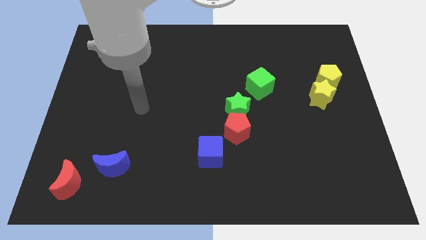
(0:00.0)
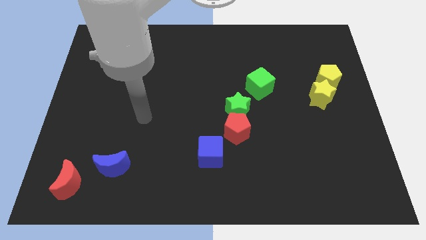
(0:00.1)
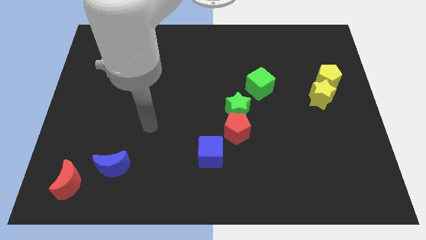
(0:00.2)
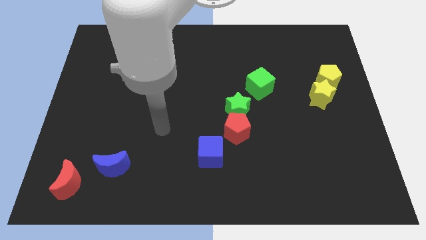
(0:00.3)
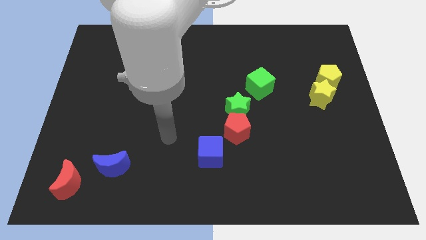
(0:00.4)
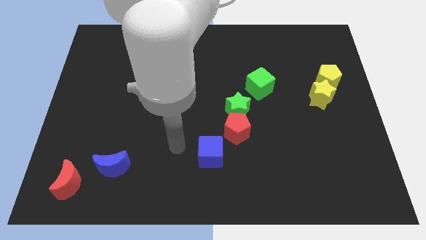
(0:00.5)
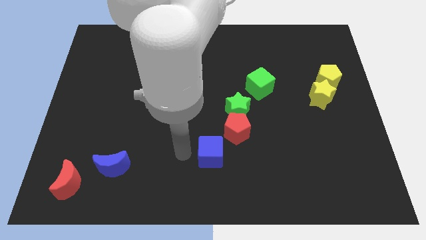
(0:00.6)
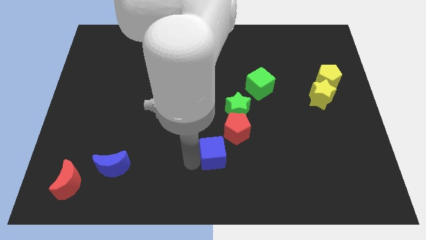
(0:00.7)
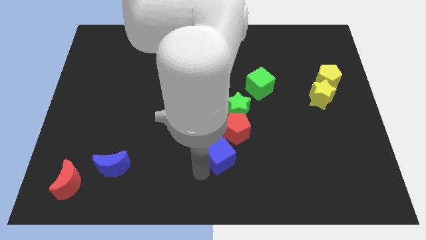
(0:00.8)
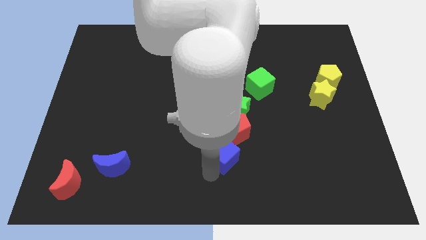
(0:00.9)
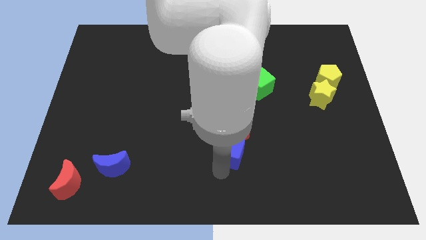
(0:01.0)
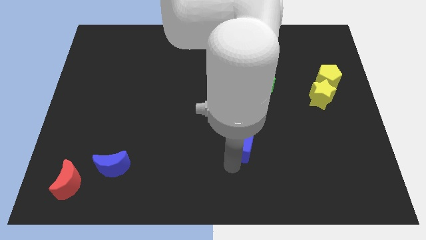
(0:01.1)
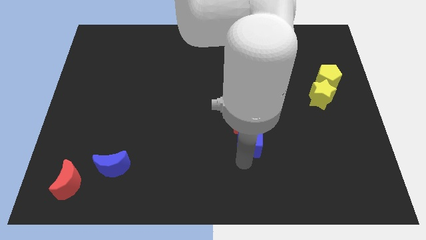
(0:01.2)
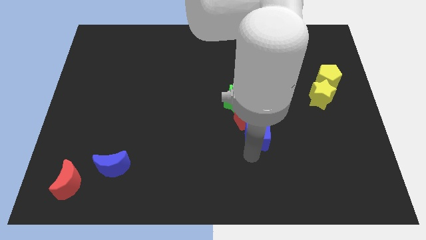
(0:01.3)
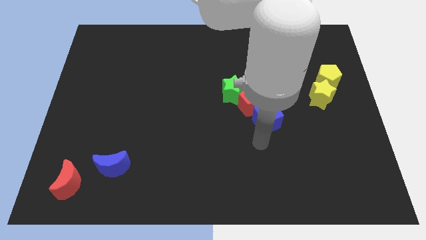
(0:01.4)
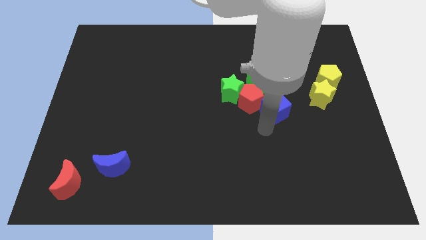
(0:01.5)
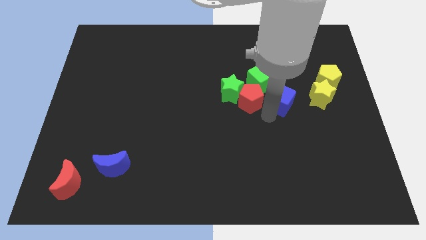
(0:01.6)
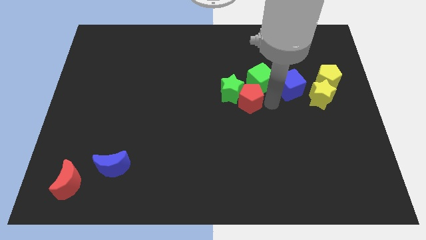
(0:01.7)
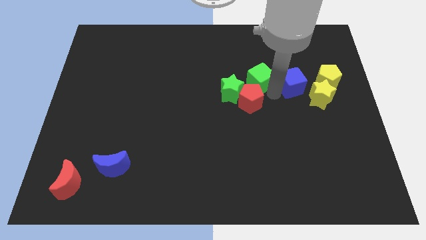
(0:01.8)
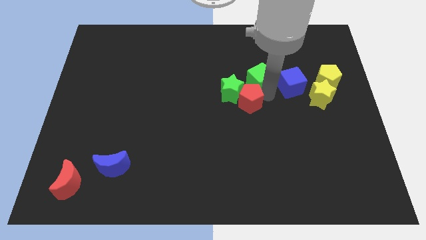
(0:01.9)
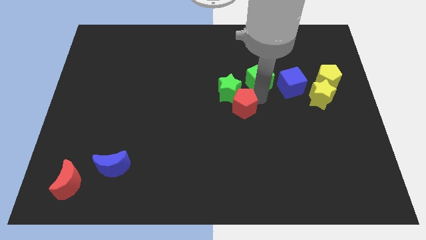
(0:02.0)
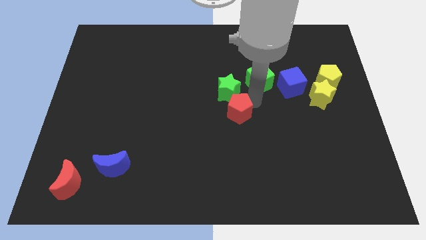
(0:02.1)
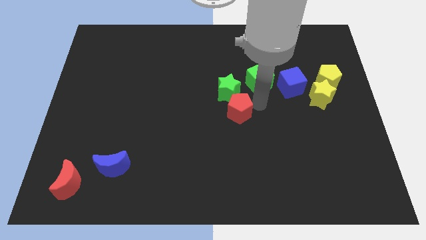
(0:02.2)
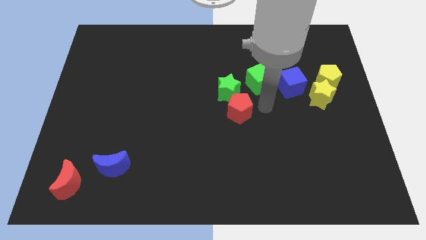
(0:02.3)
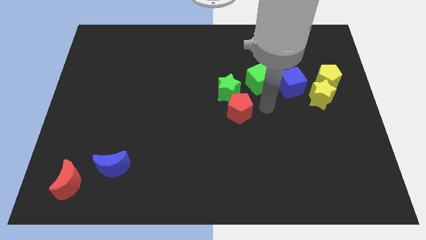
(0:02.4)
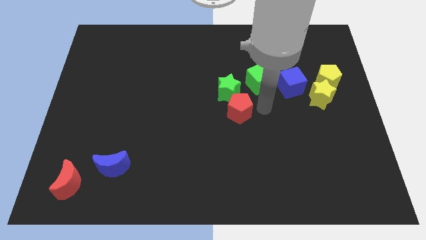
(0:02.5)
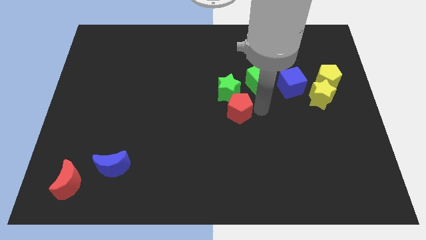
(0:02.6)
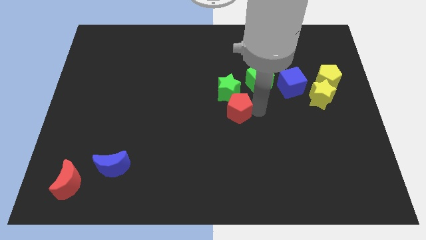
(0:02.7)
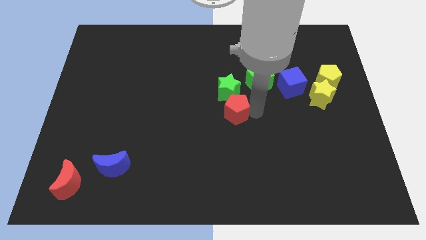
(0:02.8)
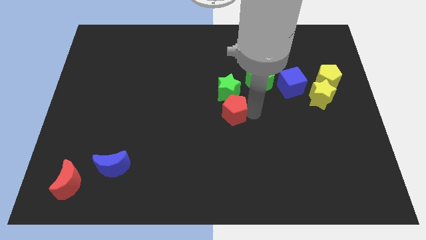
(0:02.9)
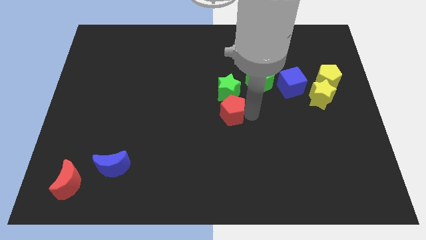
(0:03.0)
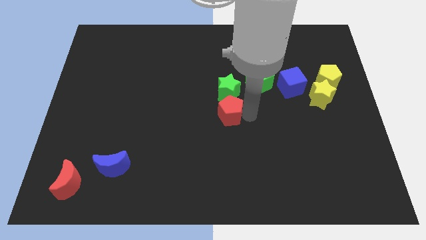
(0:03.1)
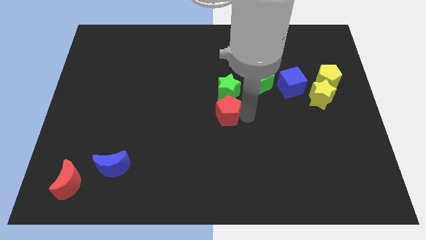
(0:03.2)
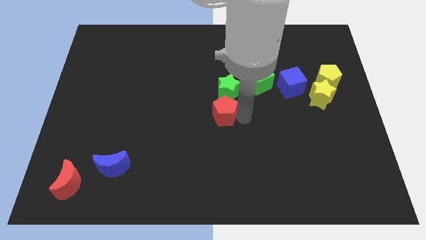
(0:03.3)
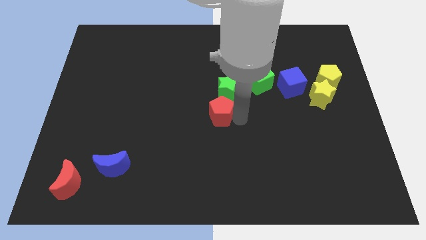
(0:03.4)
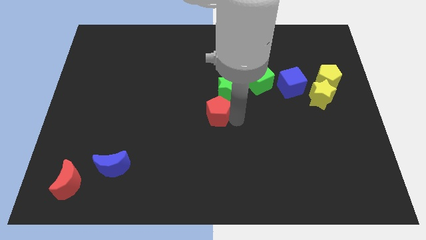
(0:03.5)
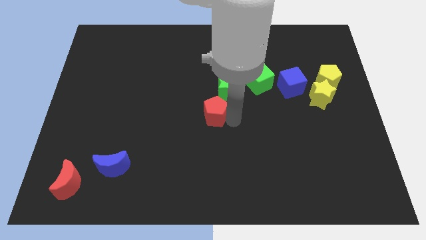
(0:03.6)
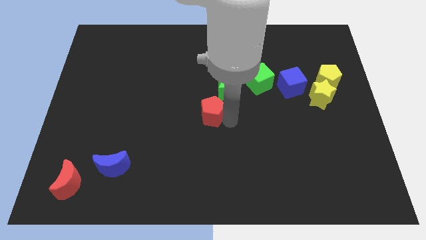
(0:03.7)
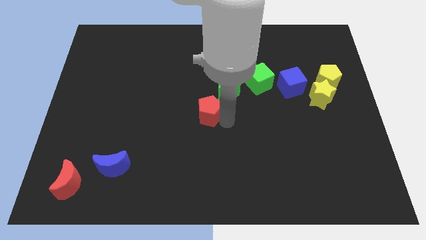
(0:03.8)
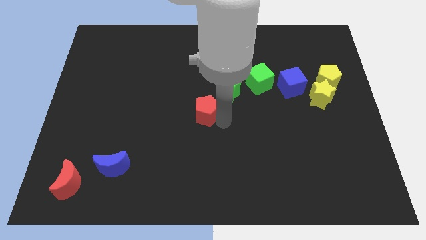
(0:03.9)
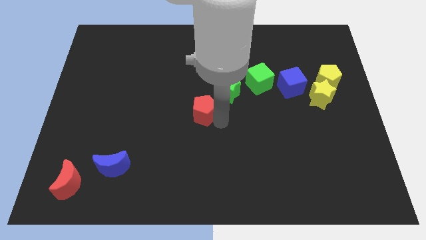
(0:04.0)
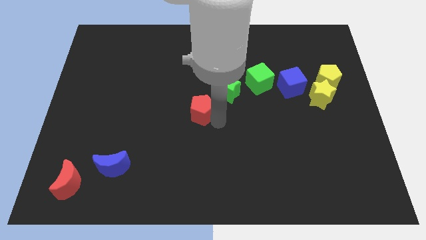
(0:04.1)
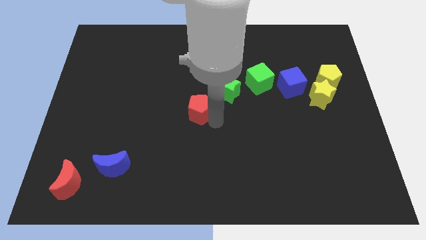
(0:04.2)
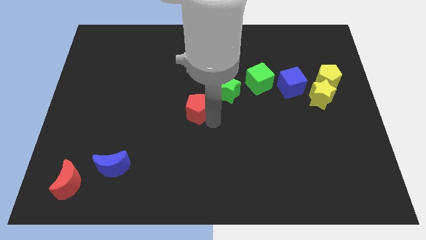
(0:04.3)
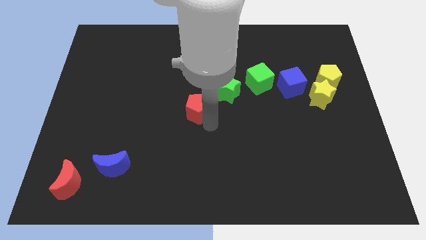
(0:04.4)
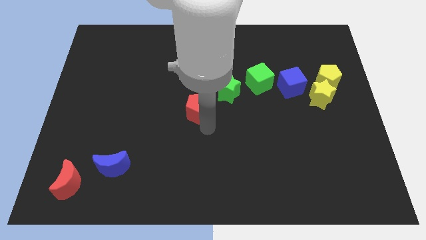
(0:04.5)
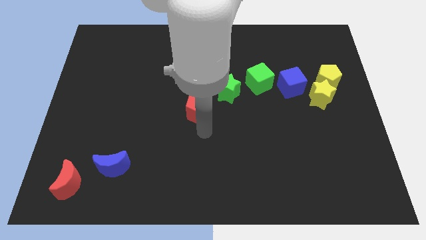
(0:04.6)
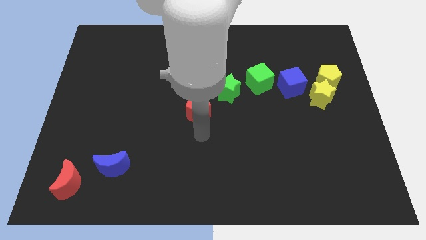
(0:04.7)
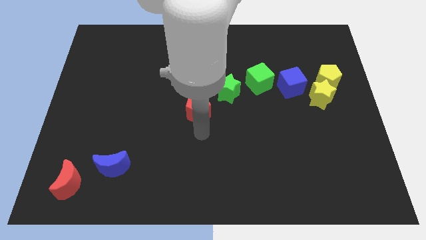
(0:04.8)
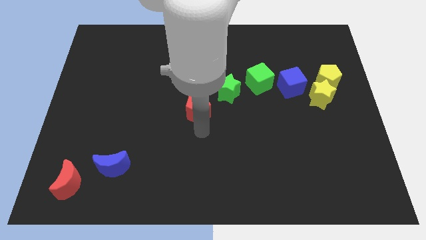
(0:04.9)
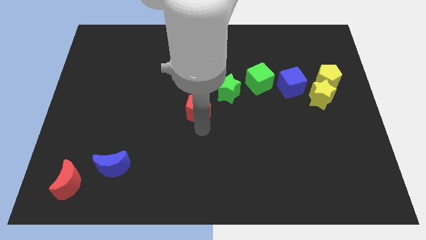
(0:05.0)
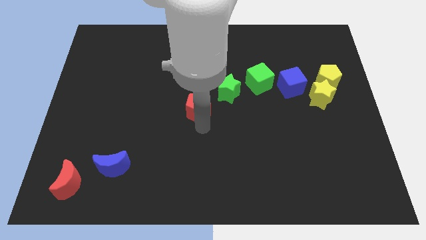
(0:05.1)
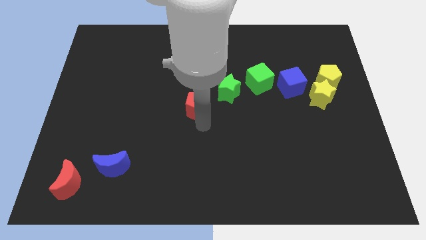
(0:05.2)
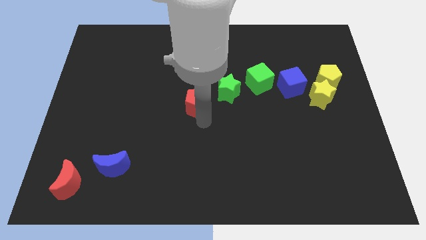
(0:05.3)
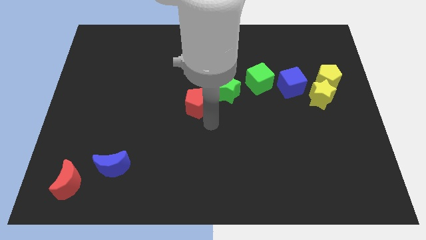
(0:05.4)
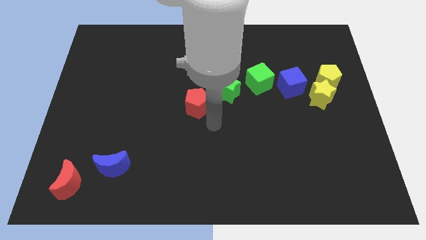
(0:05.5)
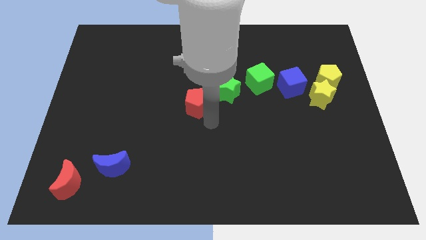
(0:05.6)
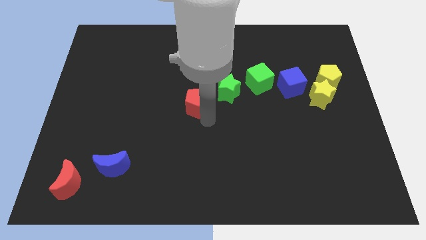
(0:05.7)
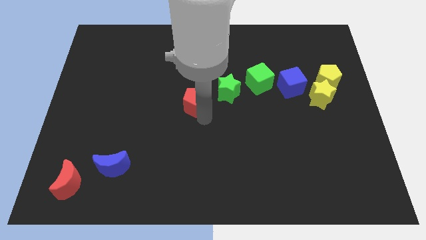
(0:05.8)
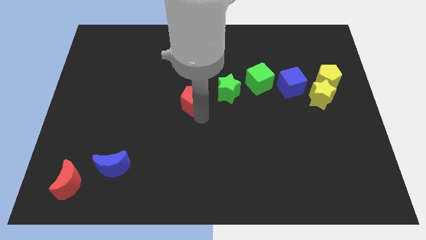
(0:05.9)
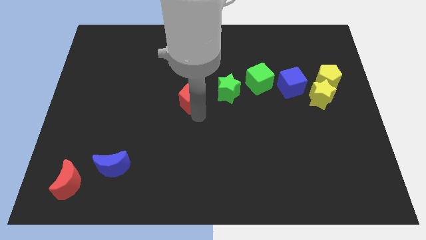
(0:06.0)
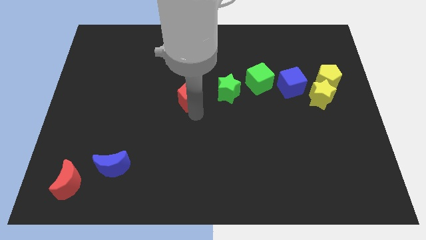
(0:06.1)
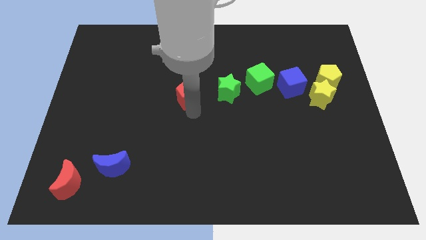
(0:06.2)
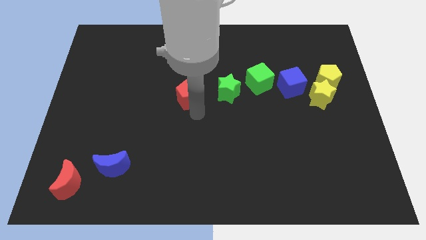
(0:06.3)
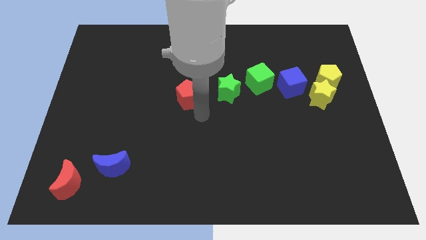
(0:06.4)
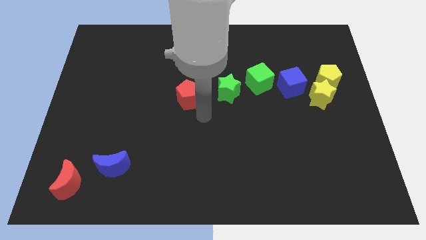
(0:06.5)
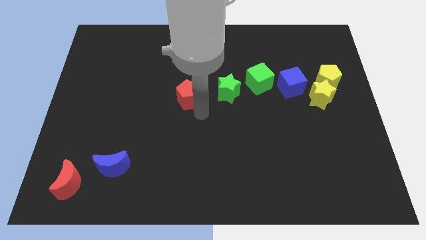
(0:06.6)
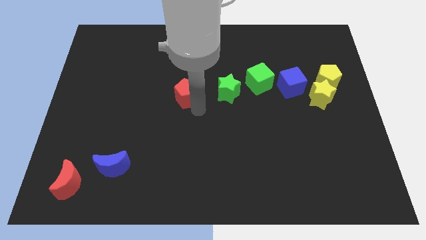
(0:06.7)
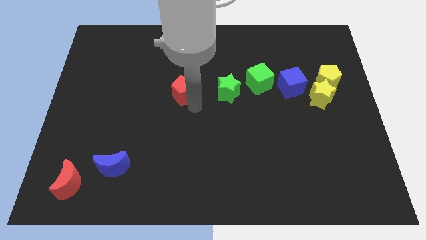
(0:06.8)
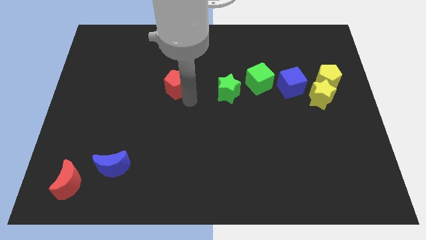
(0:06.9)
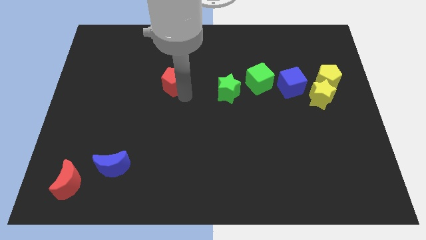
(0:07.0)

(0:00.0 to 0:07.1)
move the red pentagon up and then left

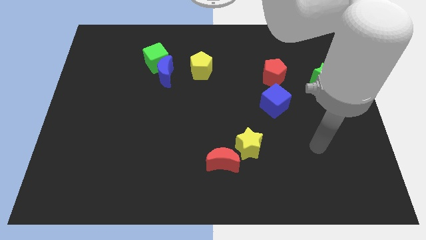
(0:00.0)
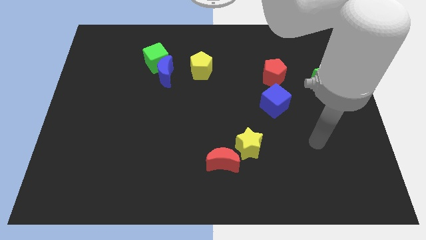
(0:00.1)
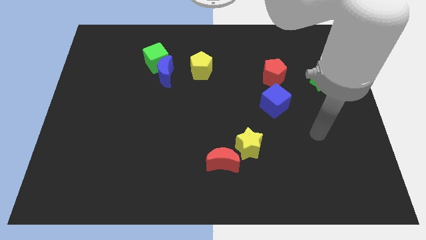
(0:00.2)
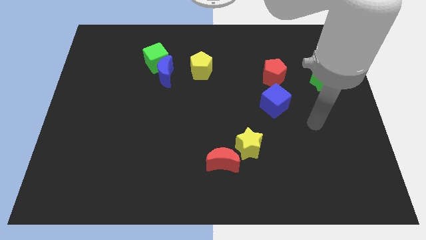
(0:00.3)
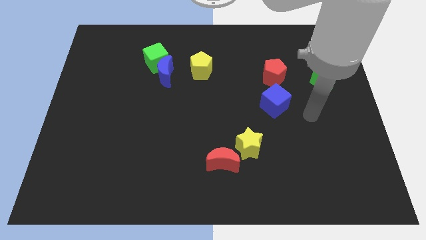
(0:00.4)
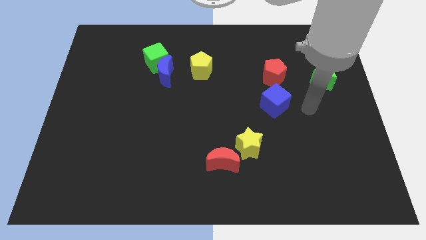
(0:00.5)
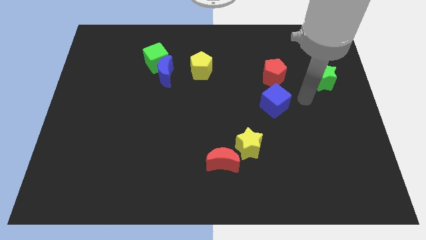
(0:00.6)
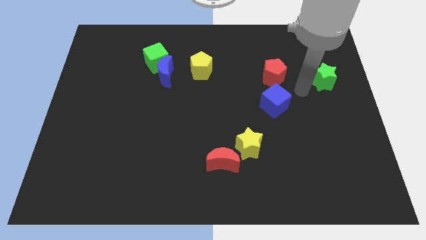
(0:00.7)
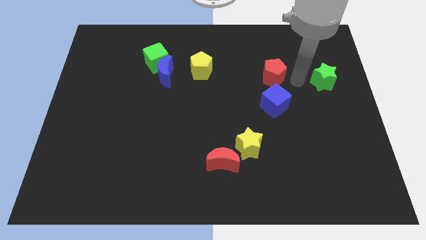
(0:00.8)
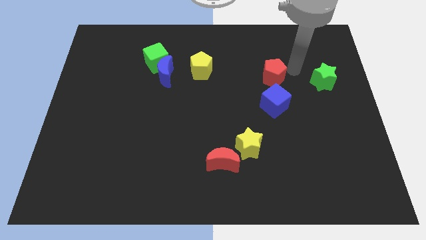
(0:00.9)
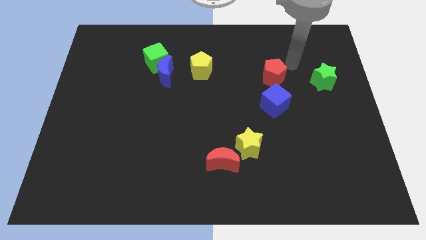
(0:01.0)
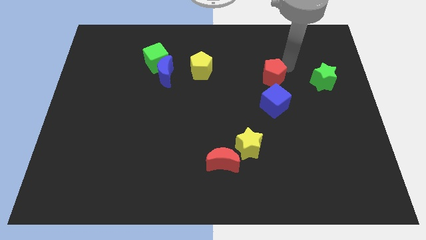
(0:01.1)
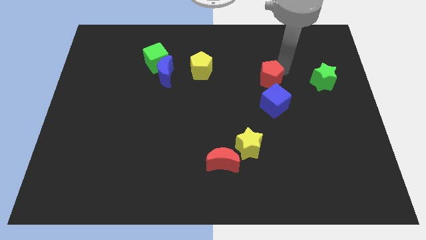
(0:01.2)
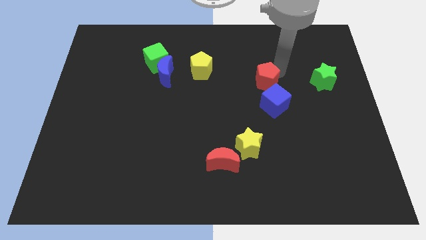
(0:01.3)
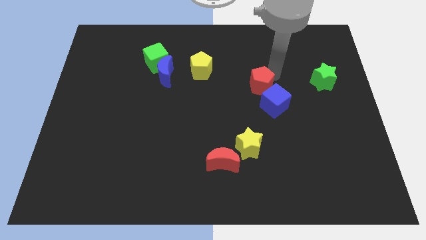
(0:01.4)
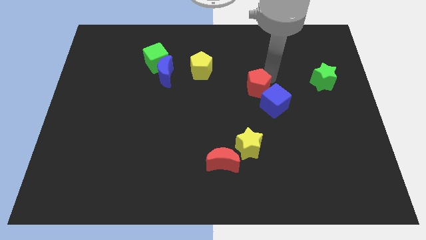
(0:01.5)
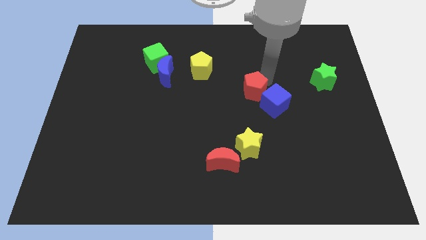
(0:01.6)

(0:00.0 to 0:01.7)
slightly move the red pentagon downwards and to the left
